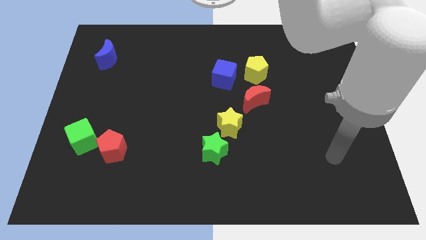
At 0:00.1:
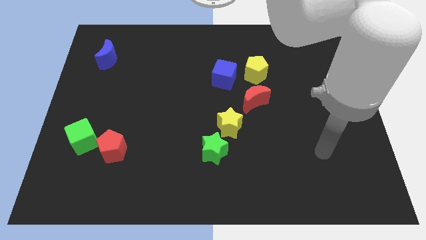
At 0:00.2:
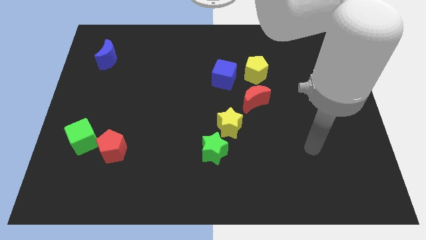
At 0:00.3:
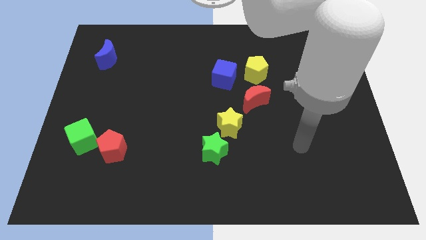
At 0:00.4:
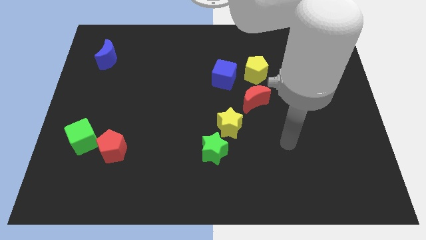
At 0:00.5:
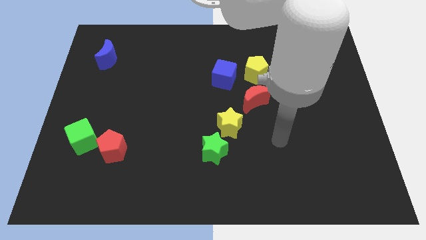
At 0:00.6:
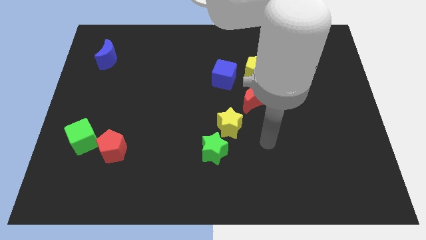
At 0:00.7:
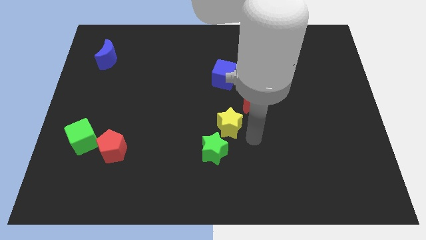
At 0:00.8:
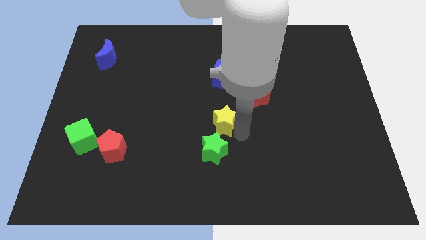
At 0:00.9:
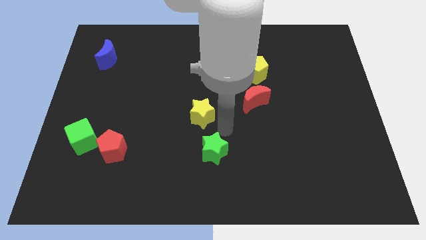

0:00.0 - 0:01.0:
move the green star away from the yellow star

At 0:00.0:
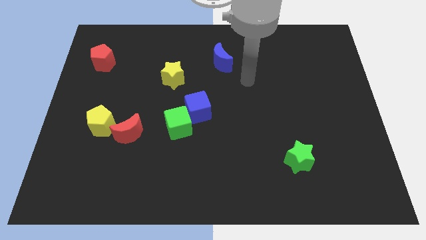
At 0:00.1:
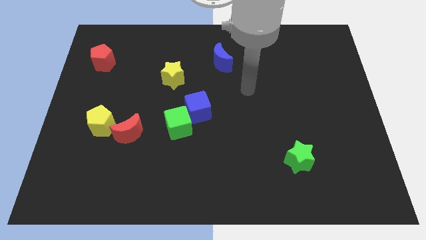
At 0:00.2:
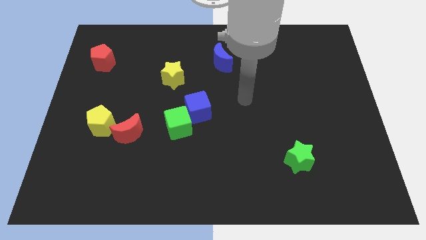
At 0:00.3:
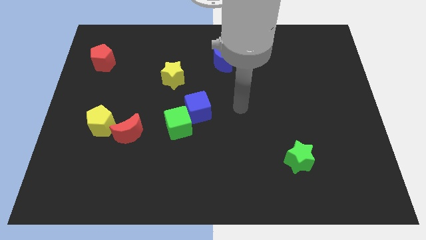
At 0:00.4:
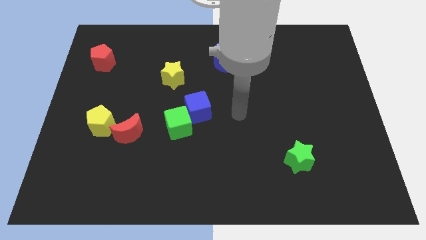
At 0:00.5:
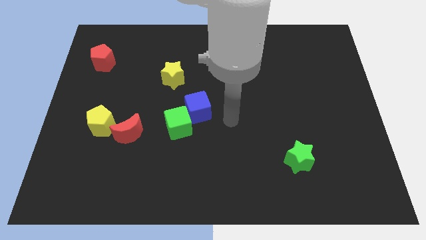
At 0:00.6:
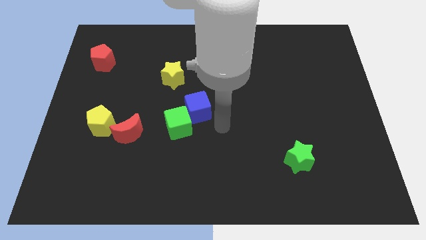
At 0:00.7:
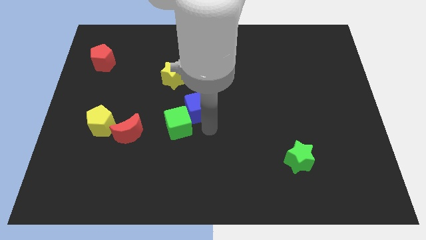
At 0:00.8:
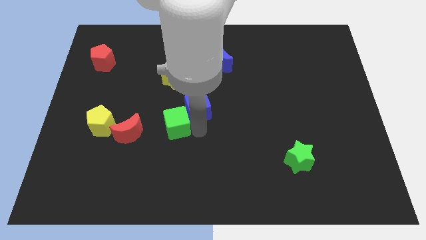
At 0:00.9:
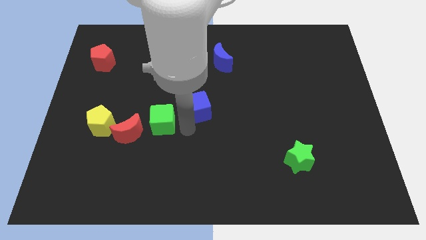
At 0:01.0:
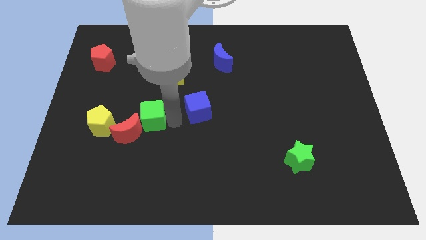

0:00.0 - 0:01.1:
separate the blue cube from the green cube

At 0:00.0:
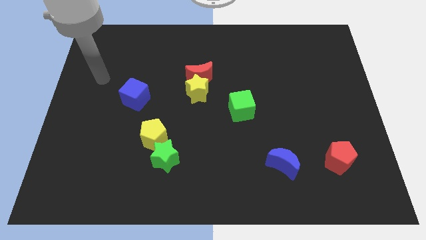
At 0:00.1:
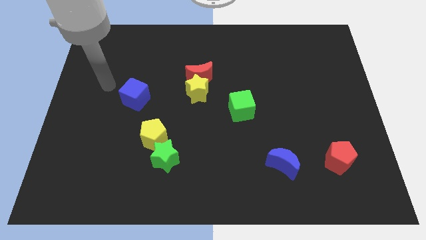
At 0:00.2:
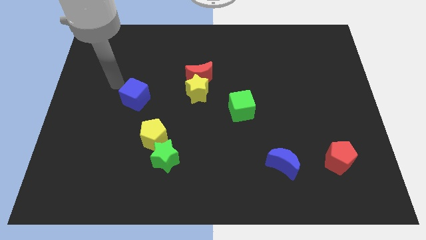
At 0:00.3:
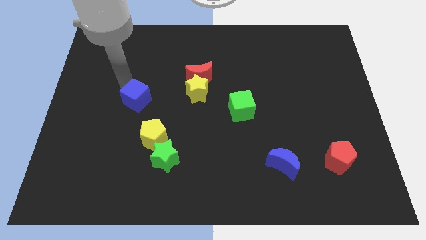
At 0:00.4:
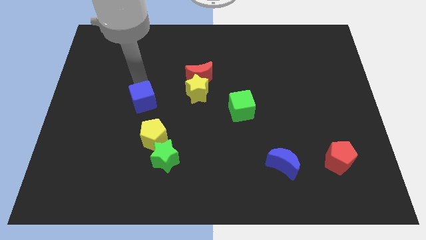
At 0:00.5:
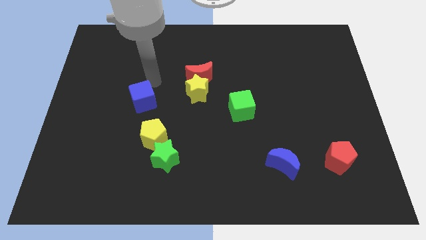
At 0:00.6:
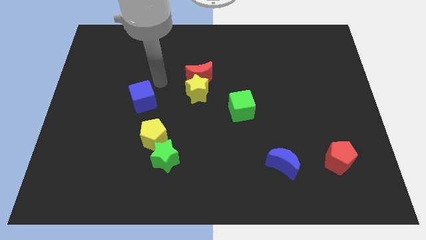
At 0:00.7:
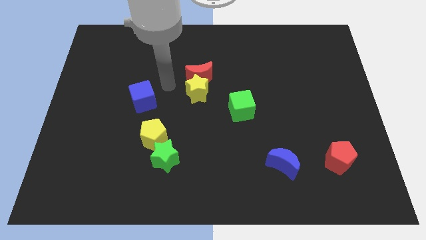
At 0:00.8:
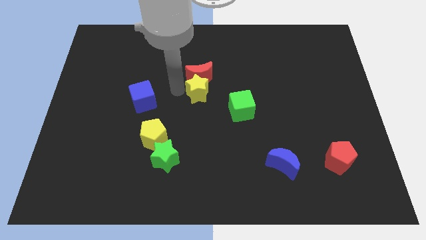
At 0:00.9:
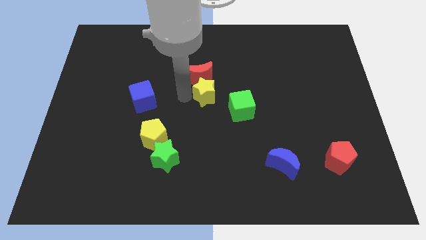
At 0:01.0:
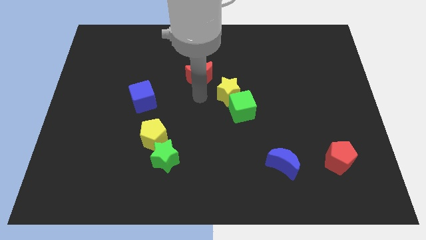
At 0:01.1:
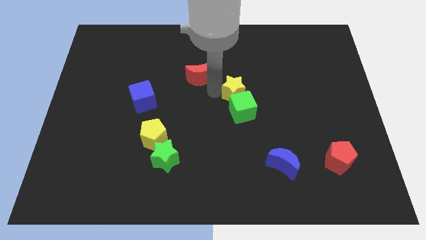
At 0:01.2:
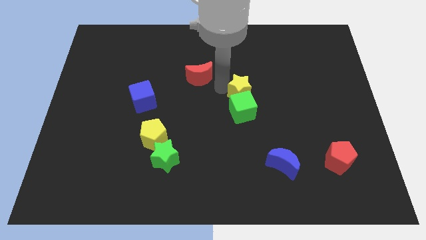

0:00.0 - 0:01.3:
move the red moon away from the yellow star

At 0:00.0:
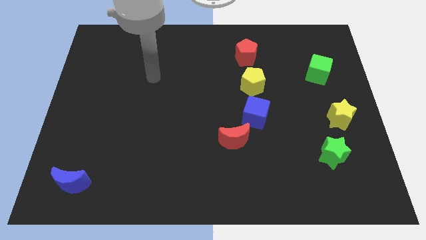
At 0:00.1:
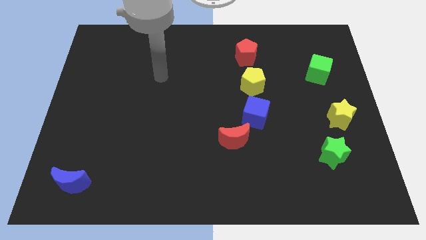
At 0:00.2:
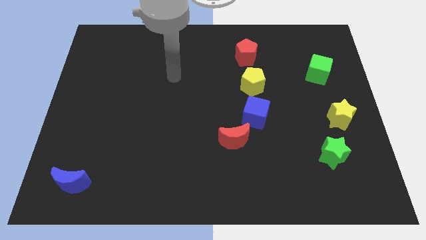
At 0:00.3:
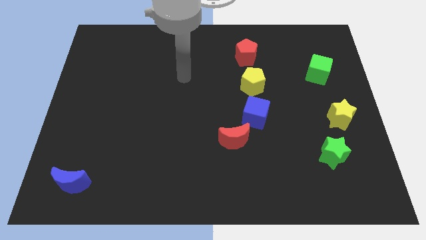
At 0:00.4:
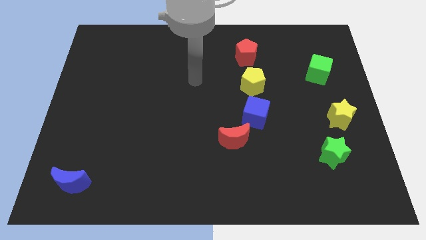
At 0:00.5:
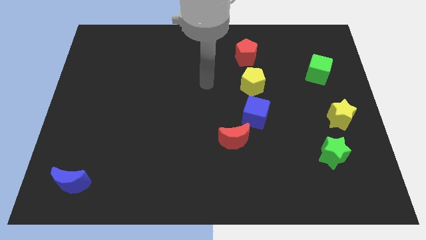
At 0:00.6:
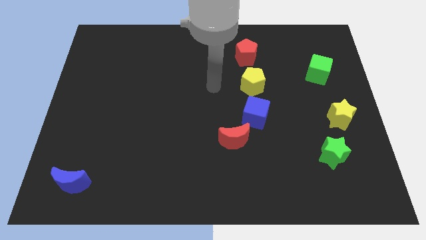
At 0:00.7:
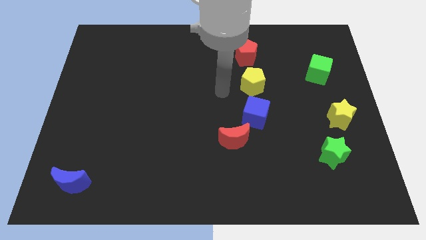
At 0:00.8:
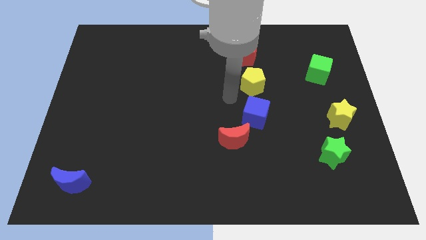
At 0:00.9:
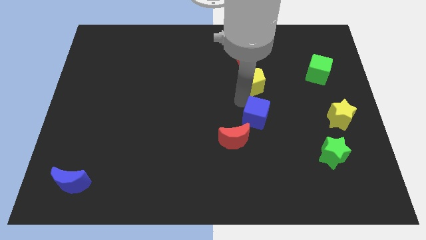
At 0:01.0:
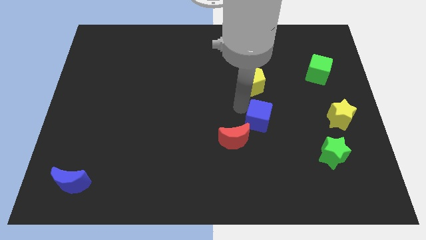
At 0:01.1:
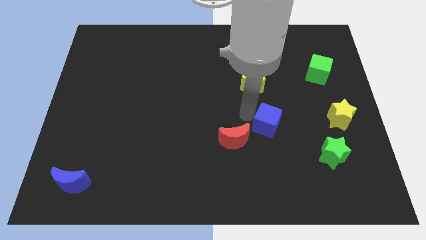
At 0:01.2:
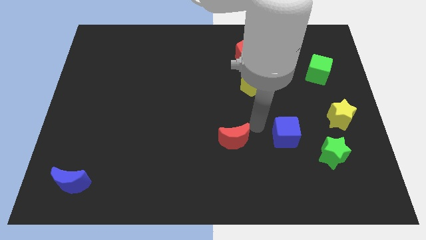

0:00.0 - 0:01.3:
move the red moon away from the blue cube

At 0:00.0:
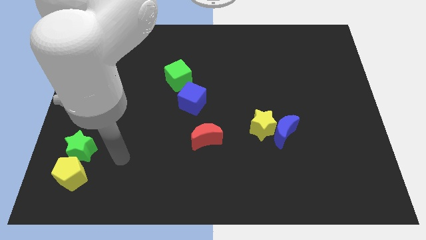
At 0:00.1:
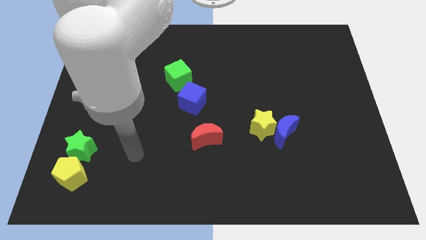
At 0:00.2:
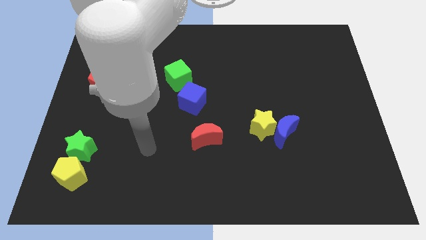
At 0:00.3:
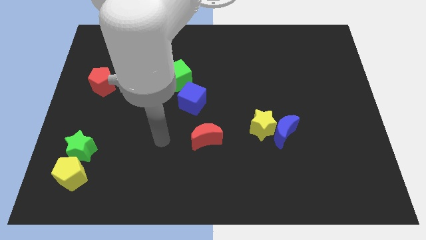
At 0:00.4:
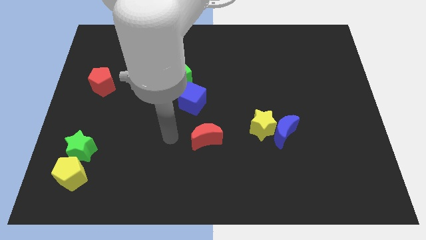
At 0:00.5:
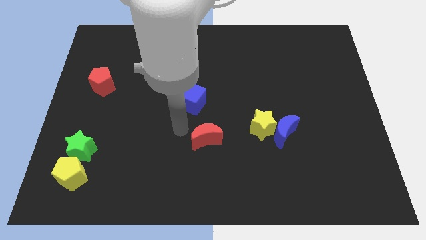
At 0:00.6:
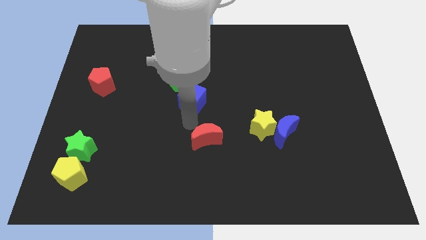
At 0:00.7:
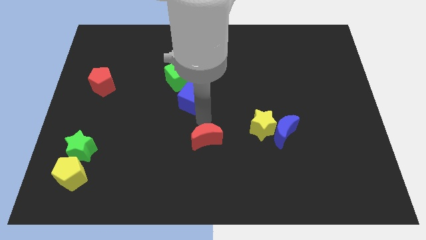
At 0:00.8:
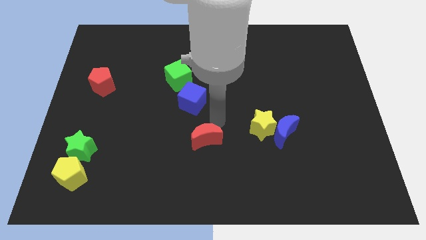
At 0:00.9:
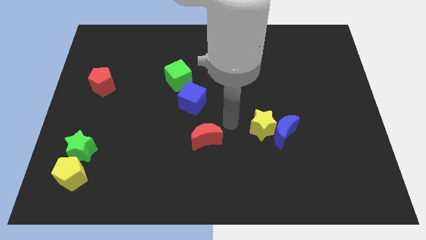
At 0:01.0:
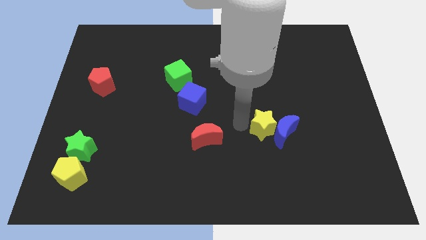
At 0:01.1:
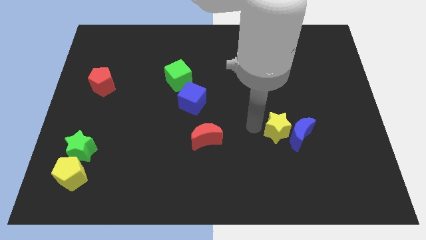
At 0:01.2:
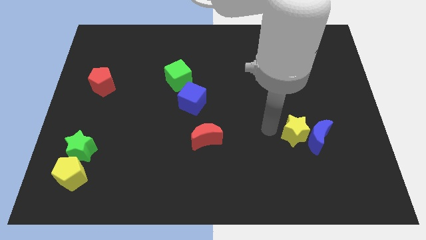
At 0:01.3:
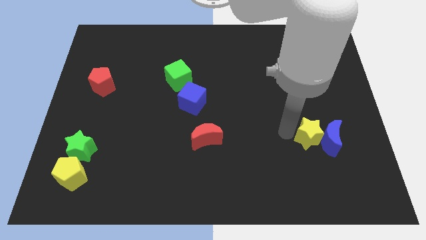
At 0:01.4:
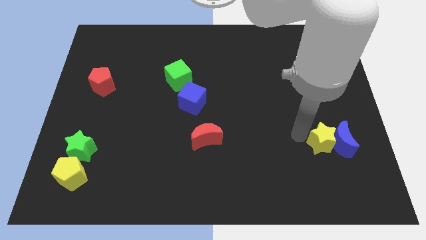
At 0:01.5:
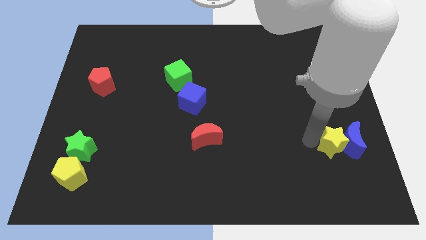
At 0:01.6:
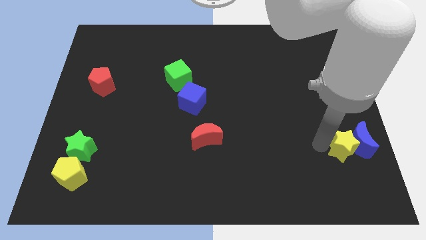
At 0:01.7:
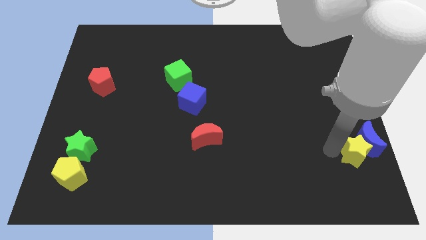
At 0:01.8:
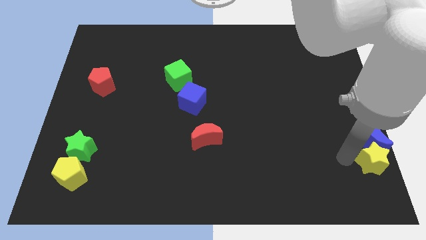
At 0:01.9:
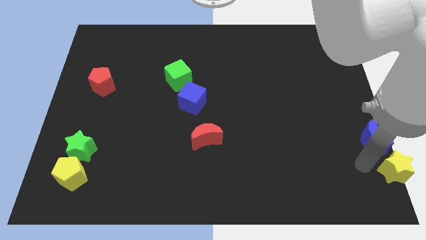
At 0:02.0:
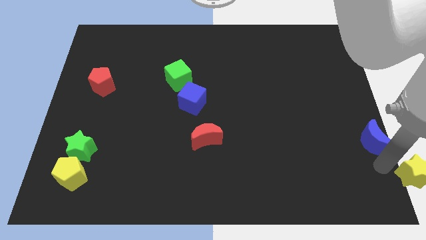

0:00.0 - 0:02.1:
separate the blue moon from the yellow star

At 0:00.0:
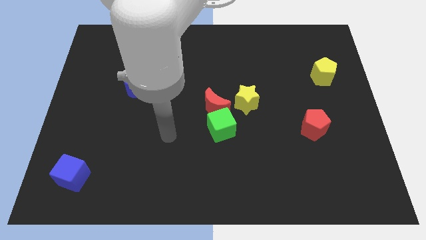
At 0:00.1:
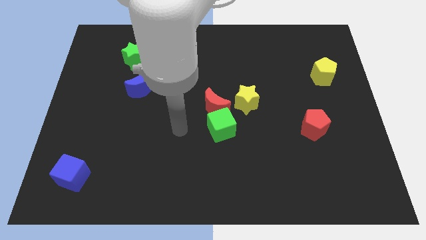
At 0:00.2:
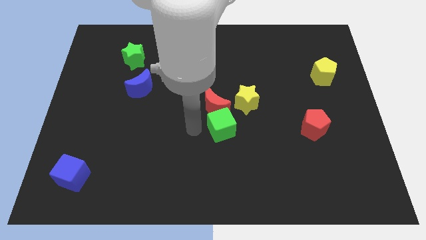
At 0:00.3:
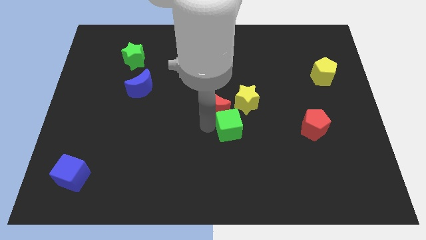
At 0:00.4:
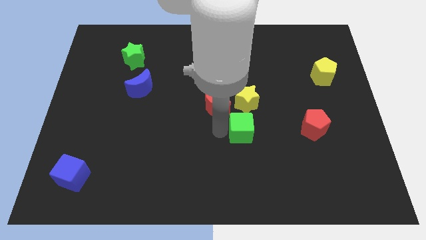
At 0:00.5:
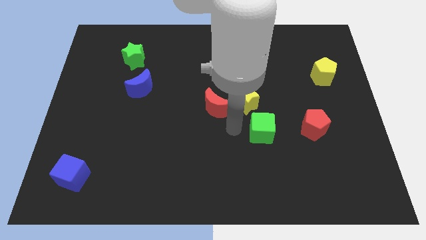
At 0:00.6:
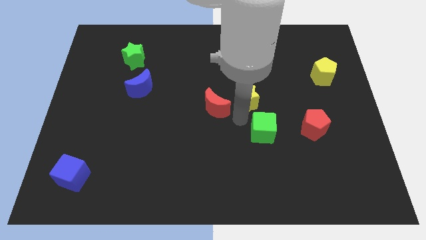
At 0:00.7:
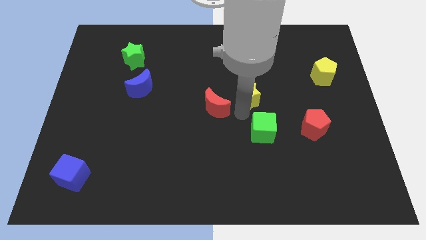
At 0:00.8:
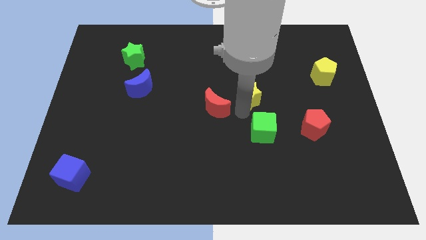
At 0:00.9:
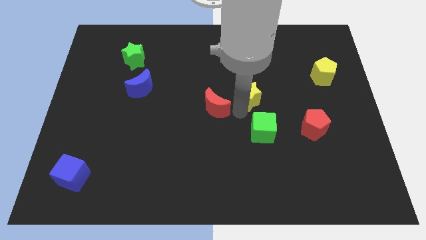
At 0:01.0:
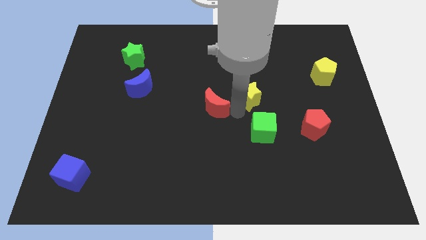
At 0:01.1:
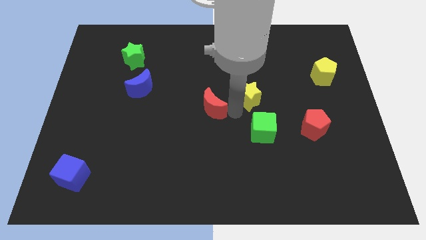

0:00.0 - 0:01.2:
separate the red moon from the green cube and yellow star

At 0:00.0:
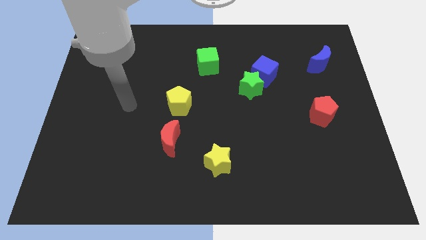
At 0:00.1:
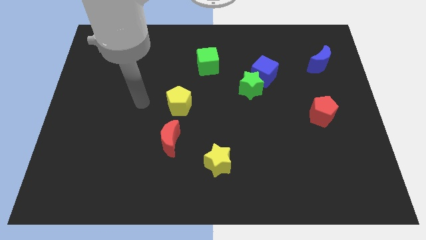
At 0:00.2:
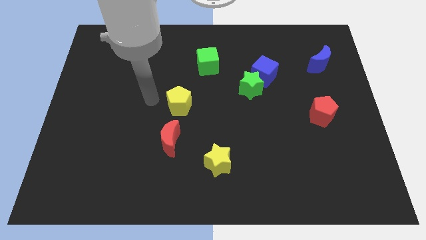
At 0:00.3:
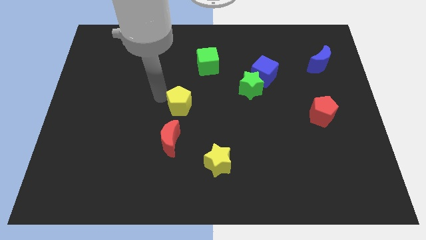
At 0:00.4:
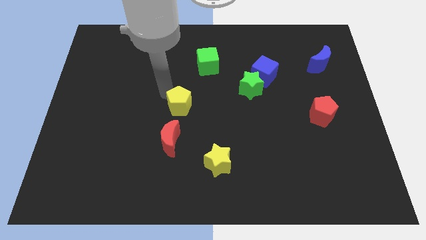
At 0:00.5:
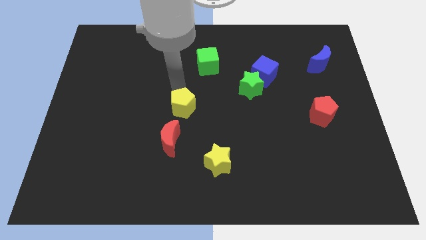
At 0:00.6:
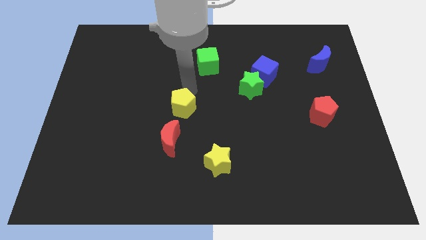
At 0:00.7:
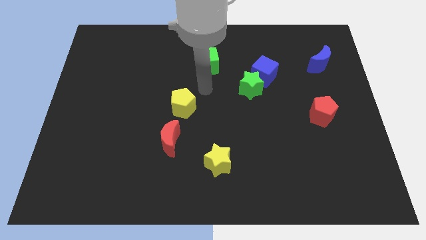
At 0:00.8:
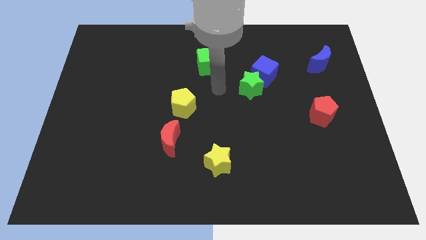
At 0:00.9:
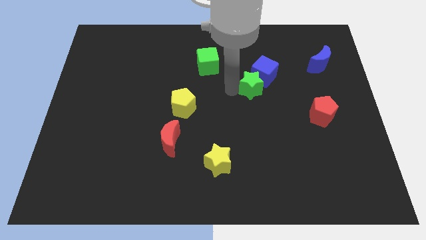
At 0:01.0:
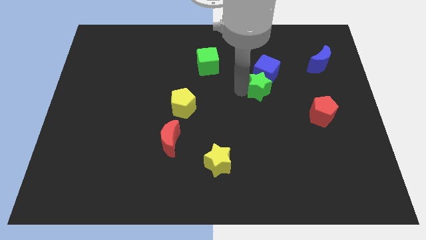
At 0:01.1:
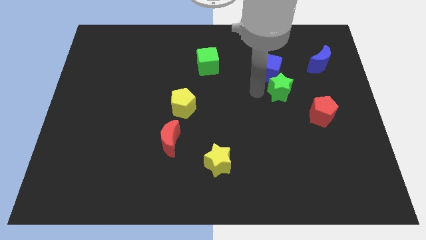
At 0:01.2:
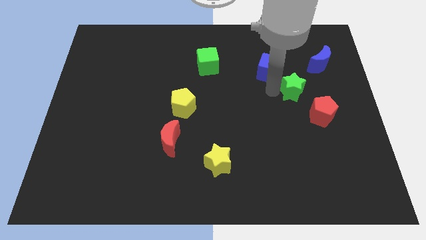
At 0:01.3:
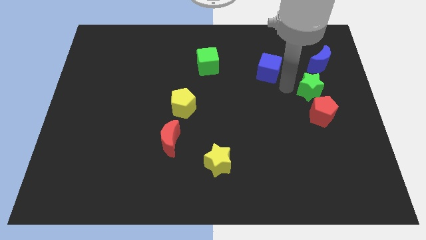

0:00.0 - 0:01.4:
move the blue cube away from the green star
